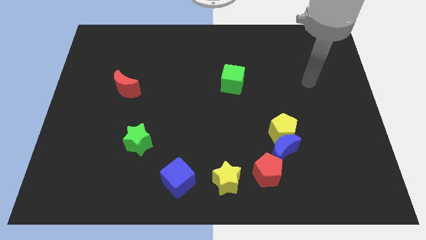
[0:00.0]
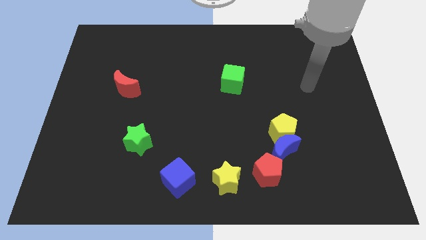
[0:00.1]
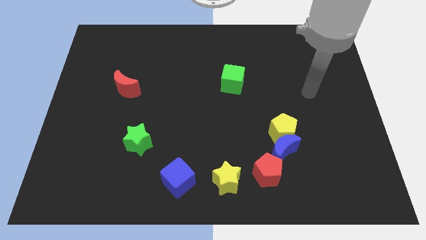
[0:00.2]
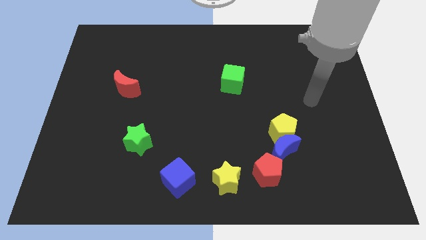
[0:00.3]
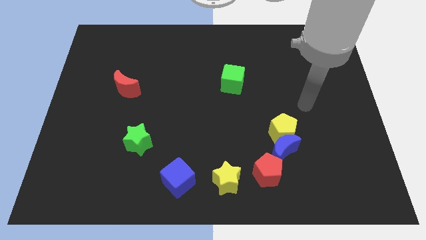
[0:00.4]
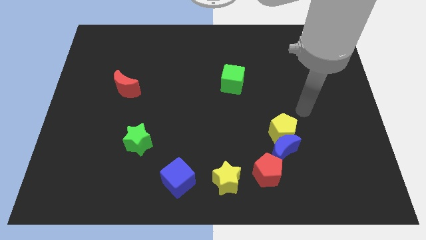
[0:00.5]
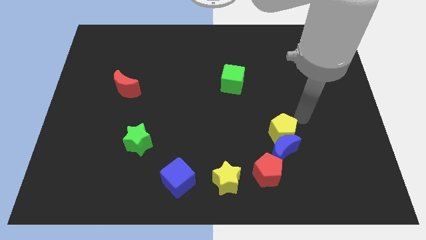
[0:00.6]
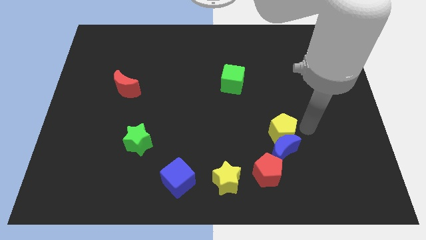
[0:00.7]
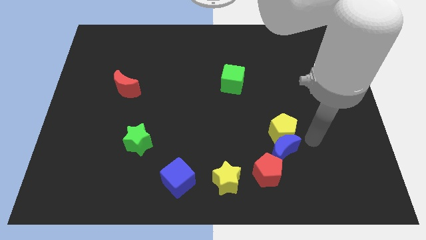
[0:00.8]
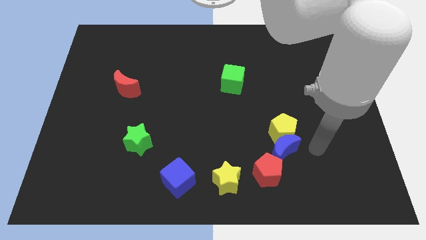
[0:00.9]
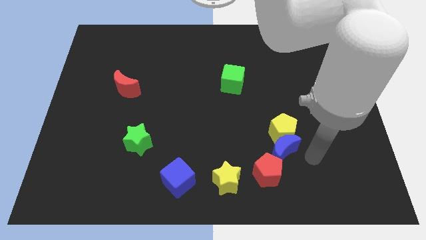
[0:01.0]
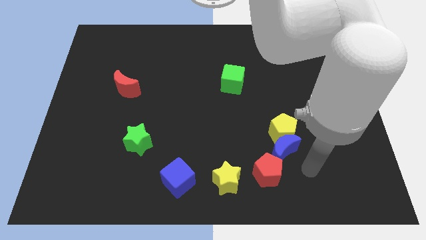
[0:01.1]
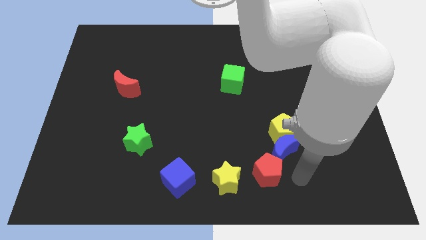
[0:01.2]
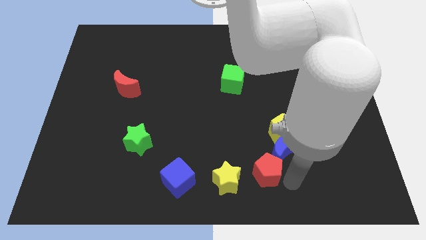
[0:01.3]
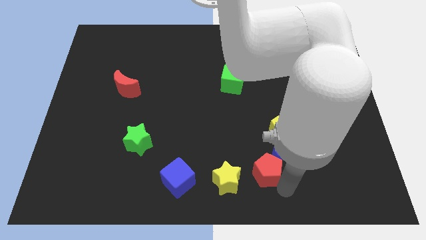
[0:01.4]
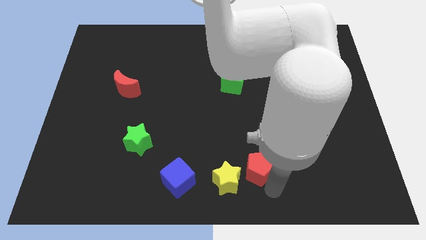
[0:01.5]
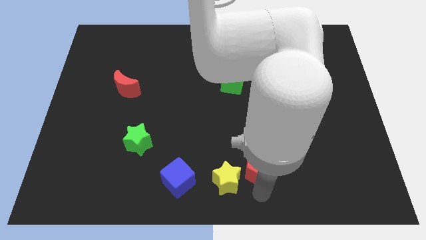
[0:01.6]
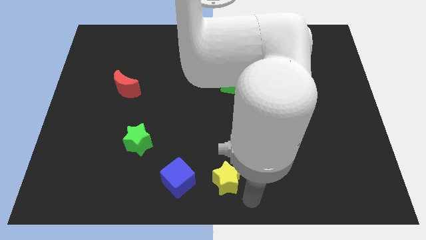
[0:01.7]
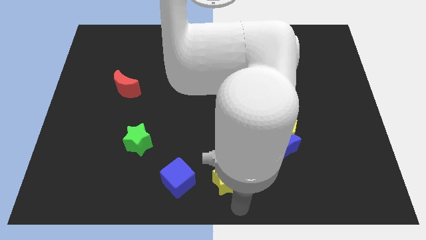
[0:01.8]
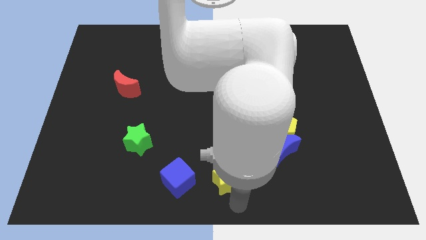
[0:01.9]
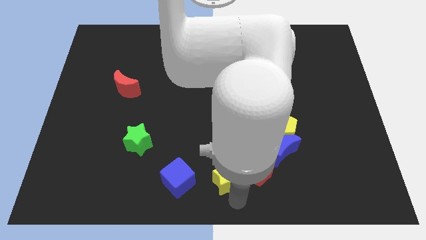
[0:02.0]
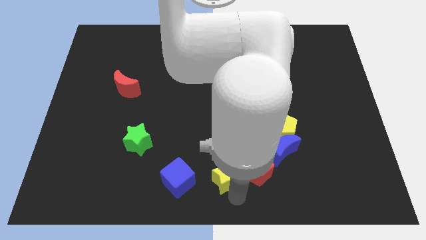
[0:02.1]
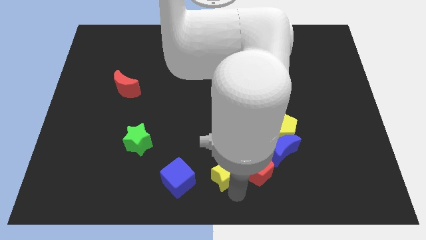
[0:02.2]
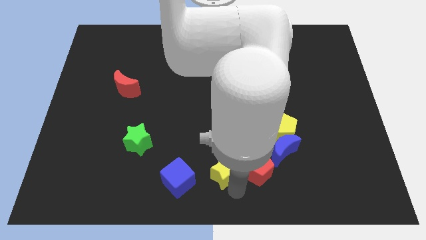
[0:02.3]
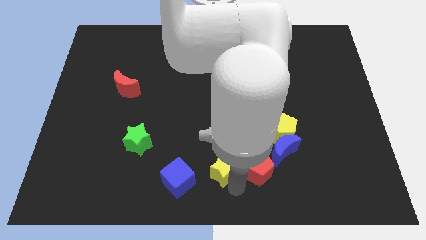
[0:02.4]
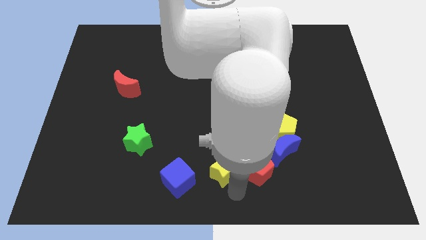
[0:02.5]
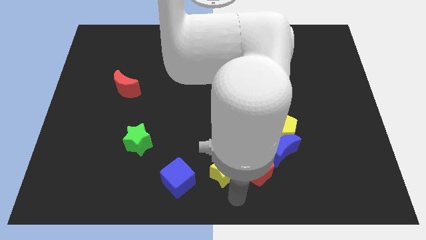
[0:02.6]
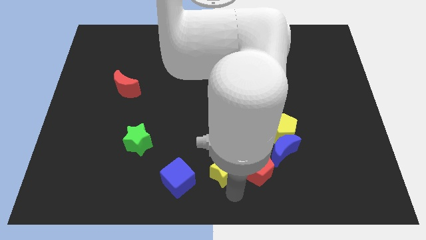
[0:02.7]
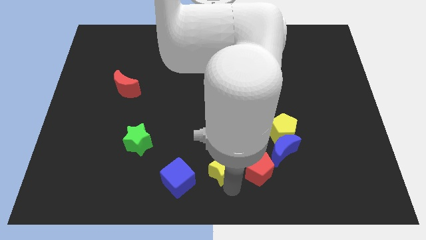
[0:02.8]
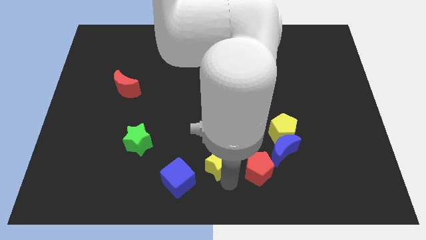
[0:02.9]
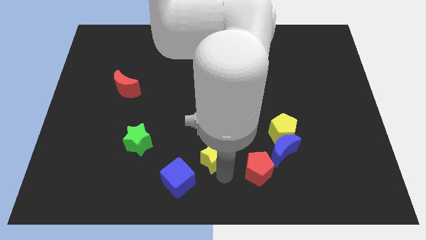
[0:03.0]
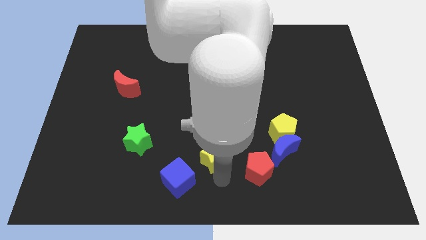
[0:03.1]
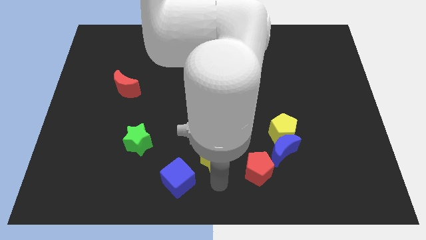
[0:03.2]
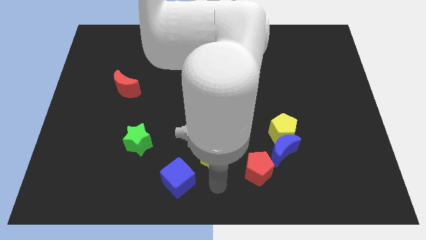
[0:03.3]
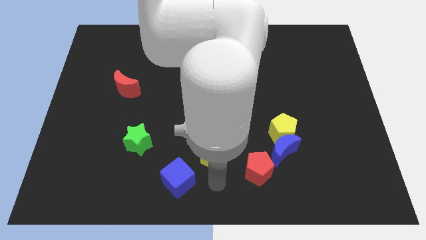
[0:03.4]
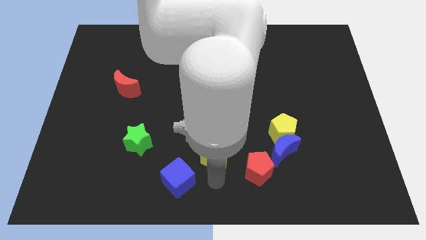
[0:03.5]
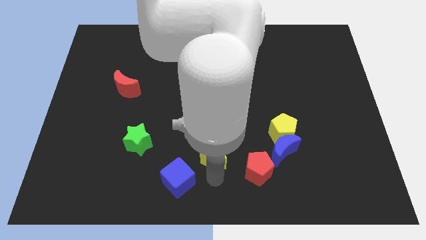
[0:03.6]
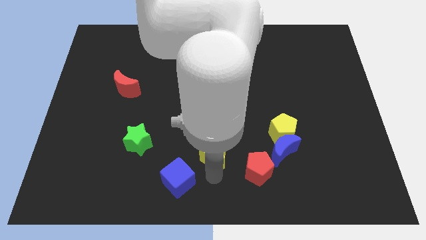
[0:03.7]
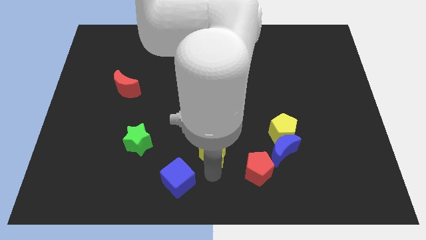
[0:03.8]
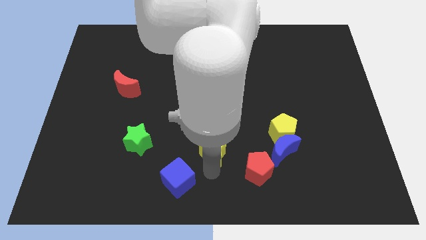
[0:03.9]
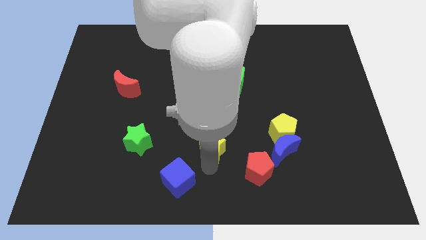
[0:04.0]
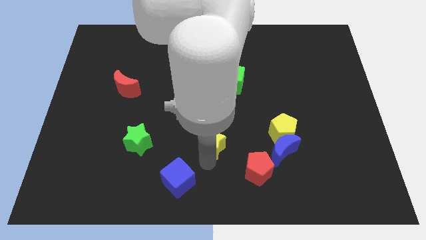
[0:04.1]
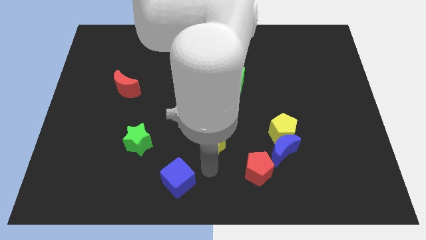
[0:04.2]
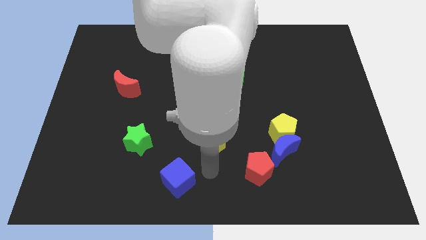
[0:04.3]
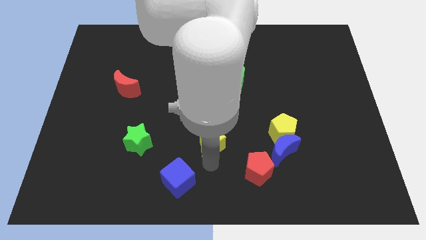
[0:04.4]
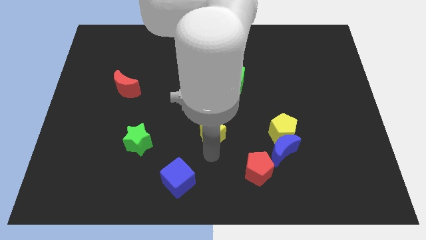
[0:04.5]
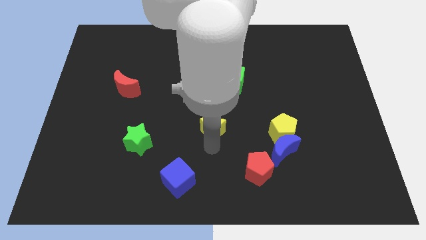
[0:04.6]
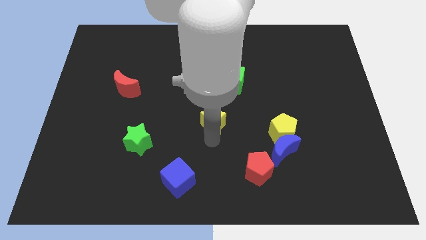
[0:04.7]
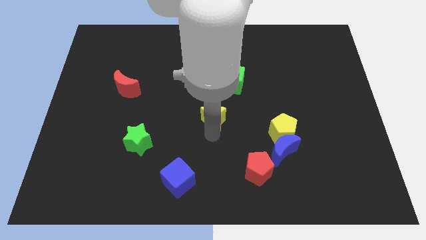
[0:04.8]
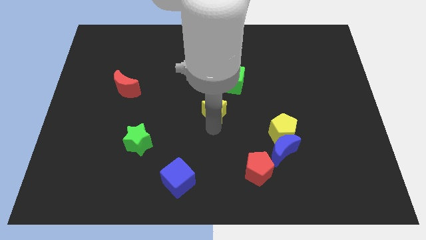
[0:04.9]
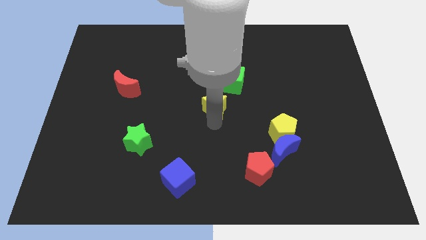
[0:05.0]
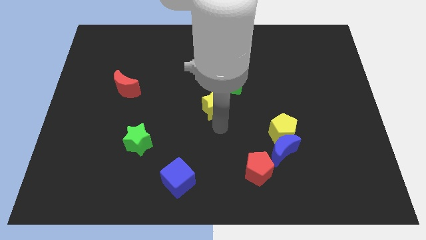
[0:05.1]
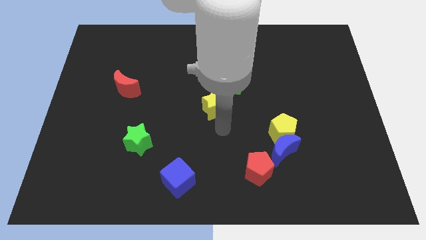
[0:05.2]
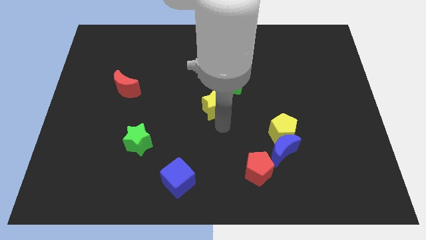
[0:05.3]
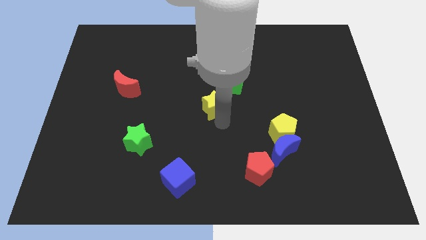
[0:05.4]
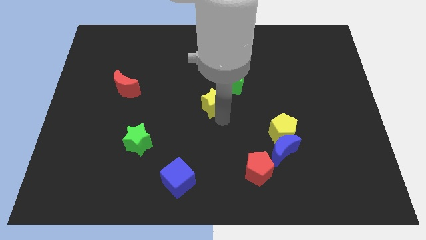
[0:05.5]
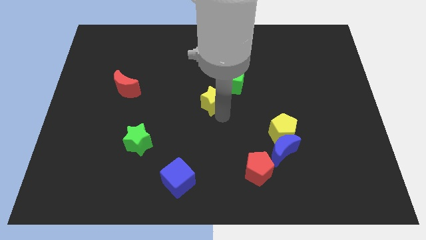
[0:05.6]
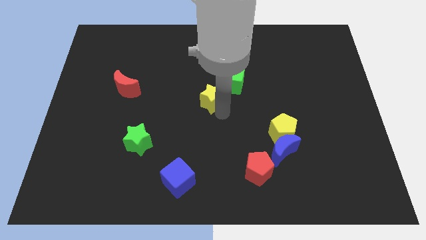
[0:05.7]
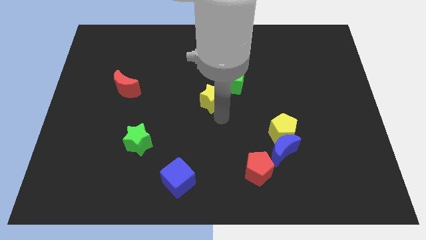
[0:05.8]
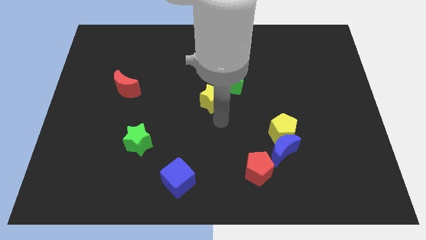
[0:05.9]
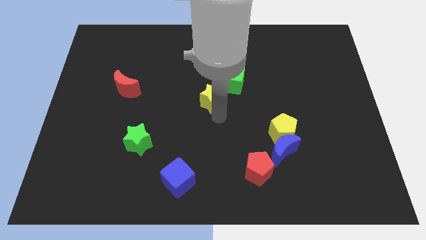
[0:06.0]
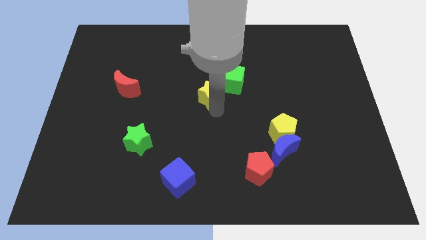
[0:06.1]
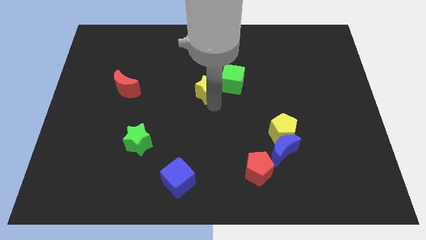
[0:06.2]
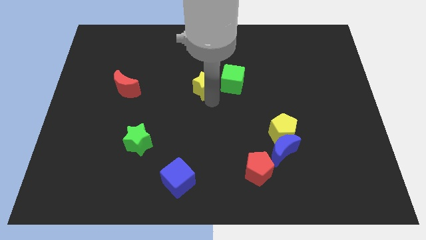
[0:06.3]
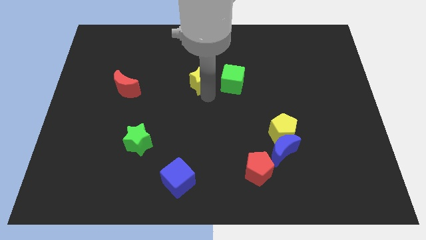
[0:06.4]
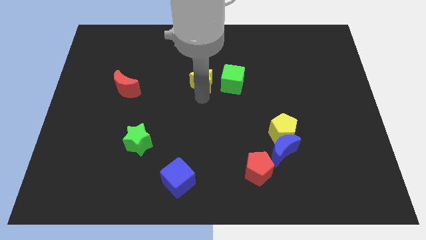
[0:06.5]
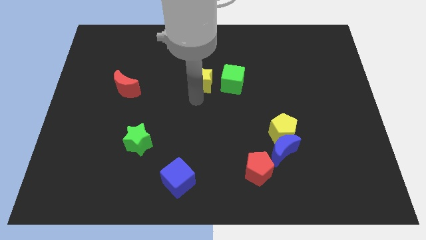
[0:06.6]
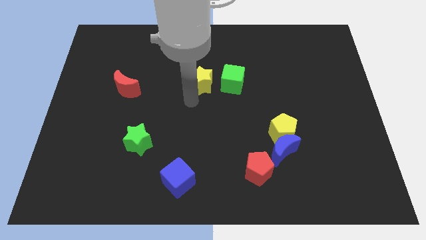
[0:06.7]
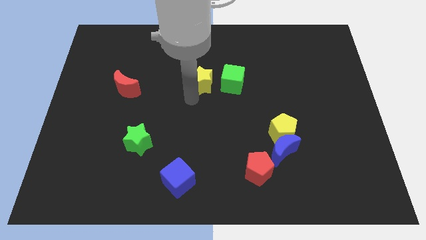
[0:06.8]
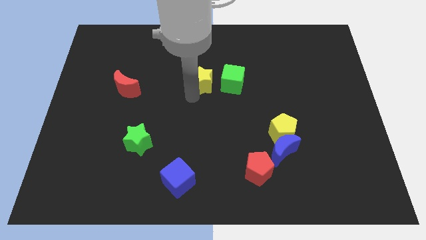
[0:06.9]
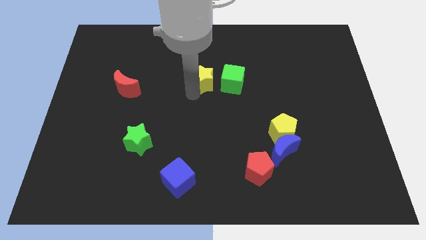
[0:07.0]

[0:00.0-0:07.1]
put the yellow star to the top left side of the green cube

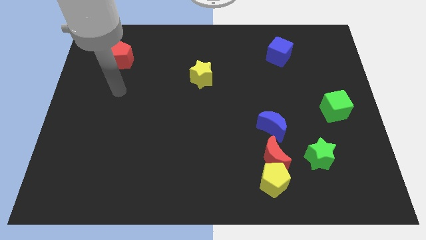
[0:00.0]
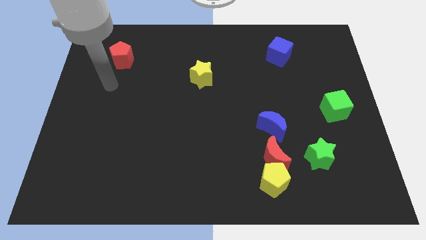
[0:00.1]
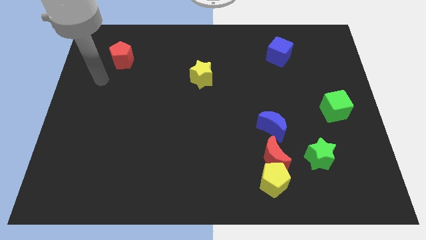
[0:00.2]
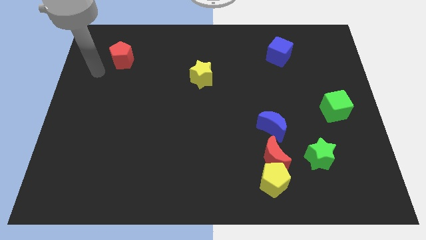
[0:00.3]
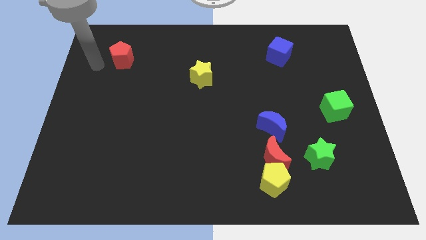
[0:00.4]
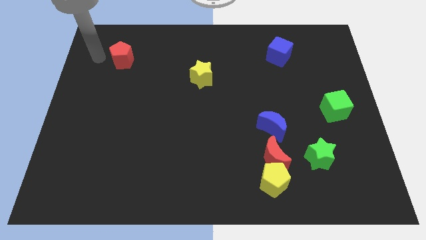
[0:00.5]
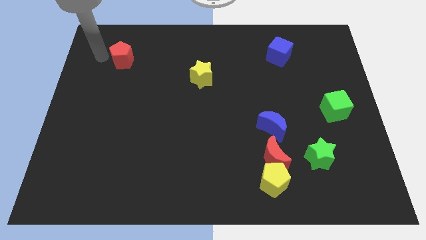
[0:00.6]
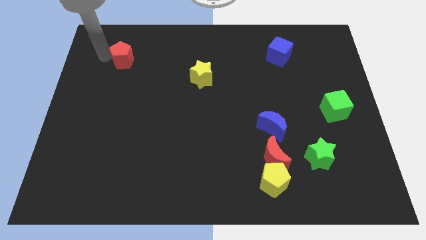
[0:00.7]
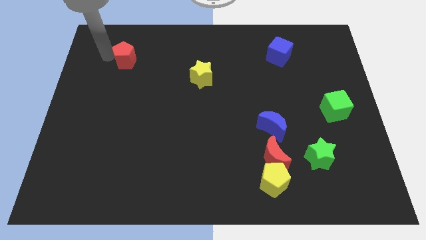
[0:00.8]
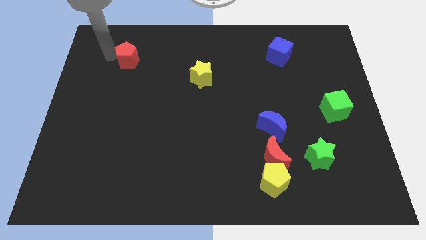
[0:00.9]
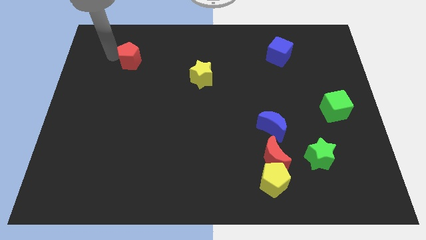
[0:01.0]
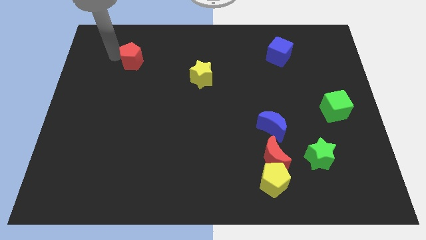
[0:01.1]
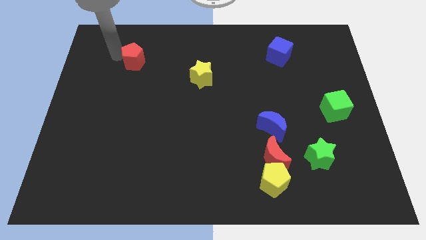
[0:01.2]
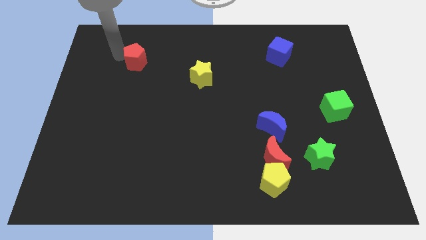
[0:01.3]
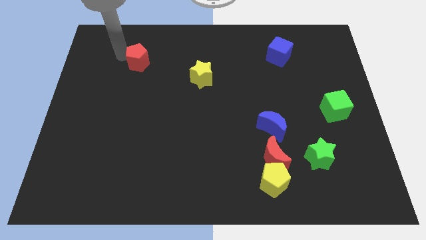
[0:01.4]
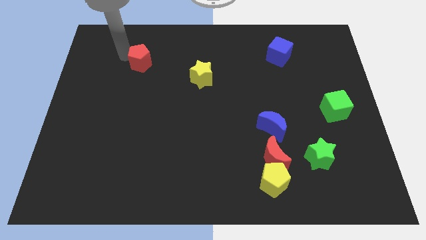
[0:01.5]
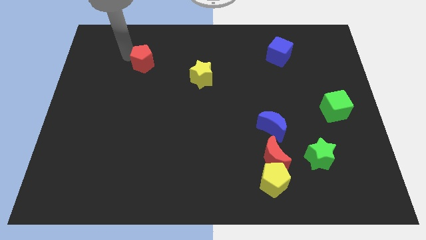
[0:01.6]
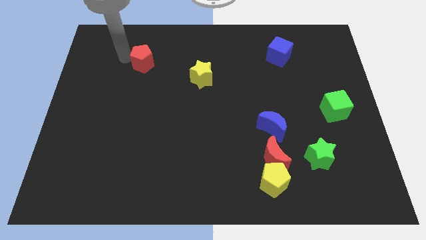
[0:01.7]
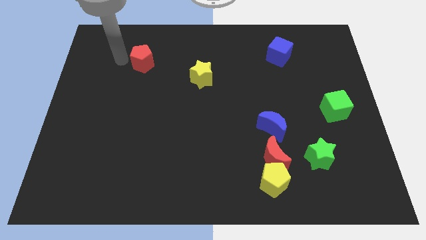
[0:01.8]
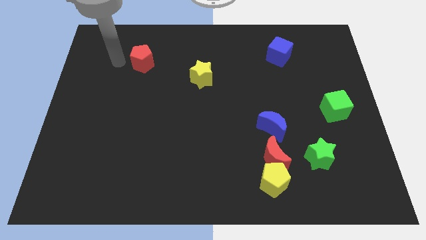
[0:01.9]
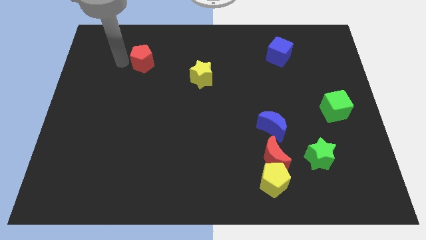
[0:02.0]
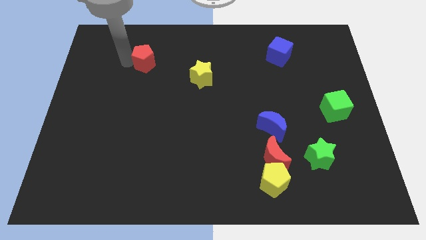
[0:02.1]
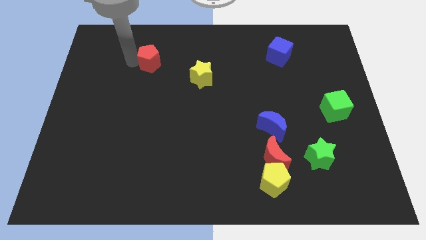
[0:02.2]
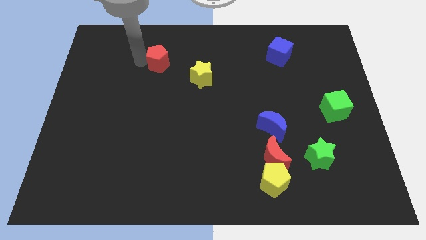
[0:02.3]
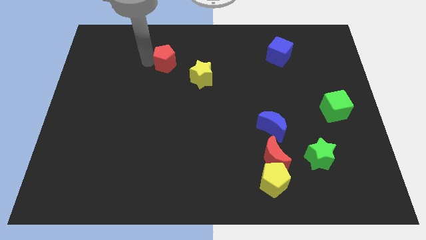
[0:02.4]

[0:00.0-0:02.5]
put the red pentagon to the top left side of the yellow star
